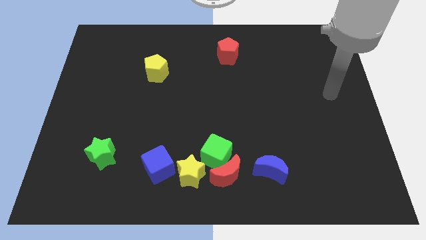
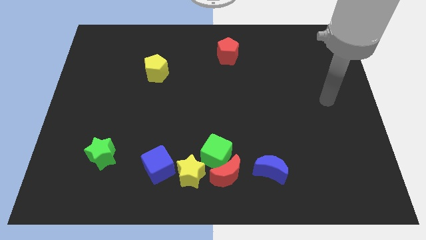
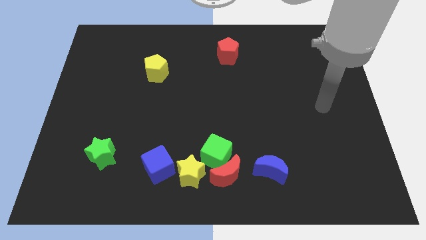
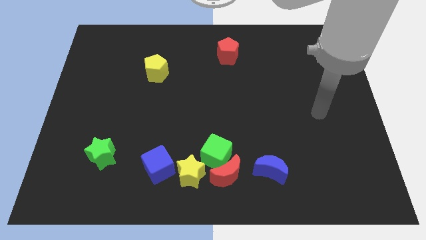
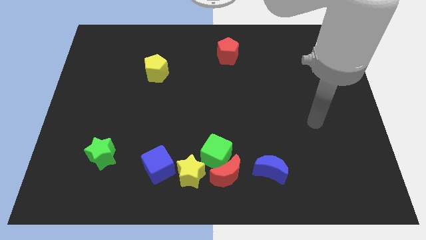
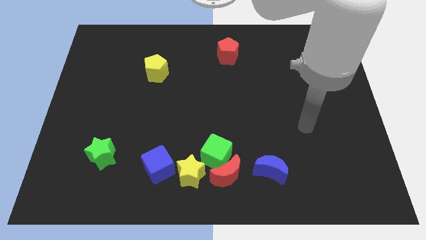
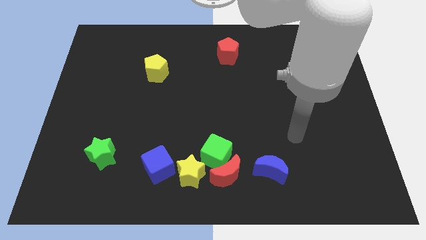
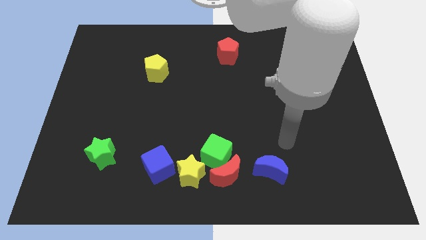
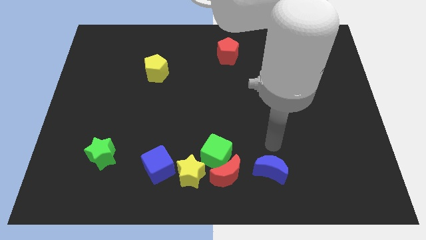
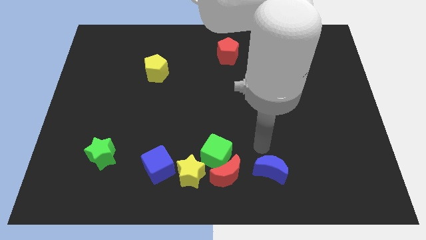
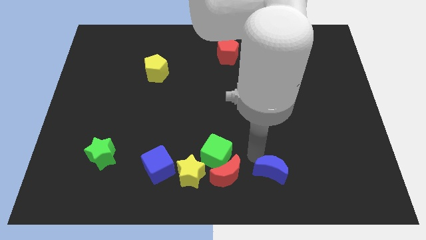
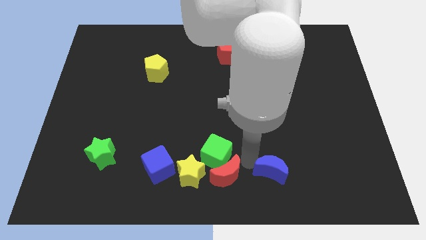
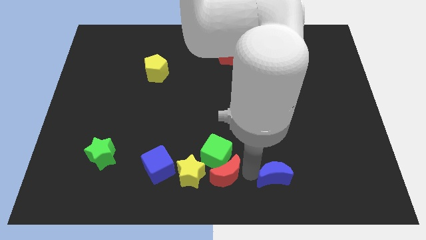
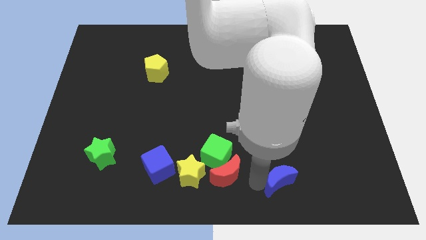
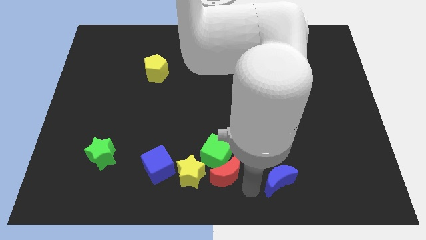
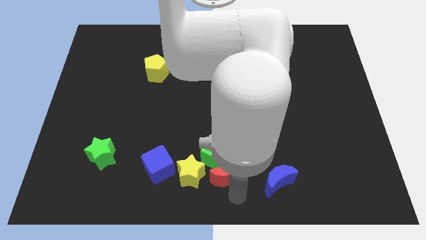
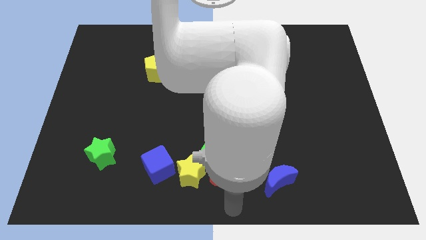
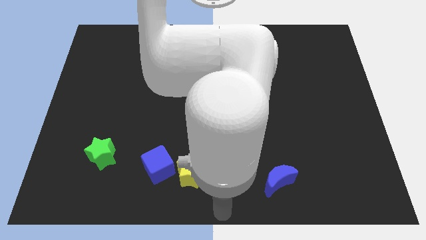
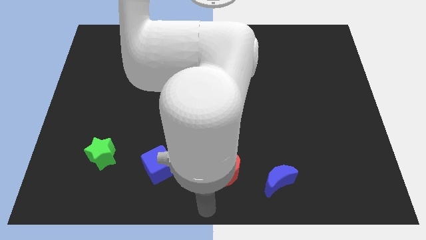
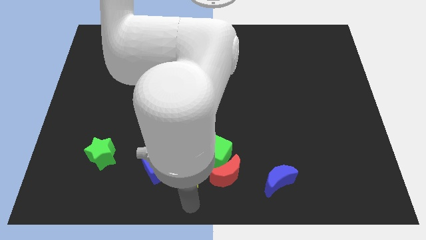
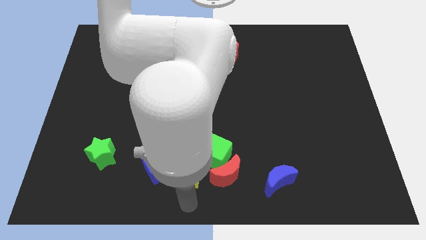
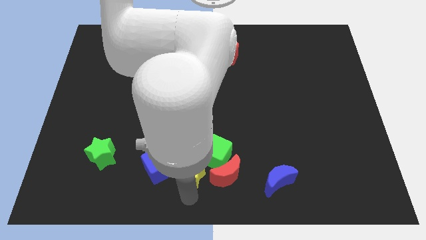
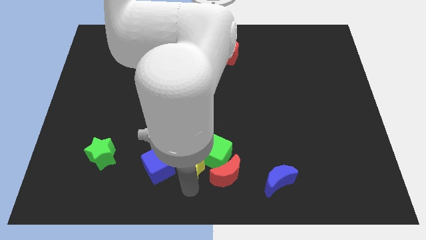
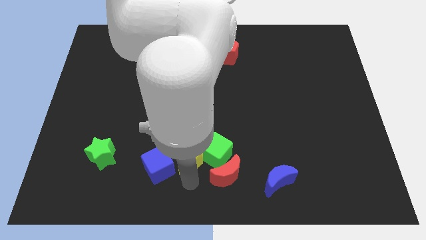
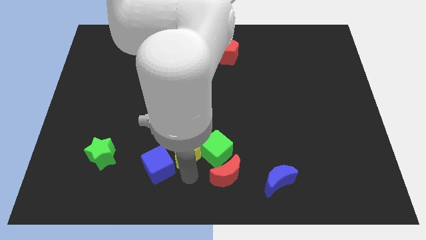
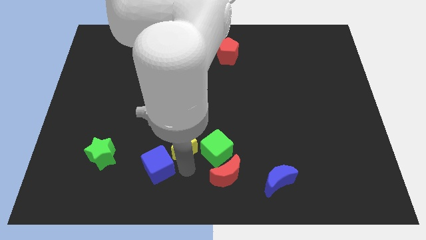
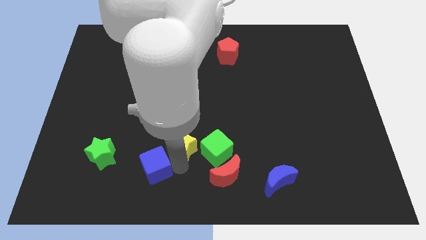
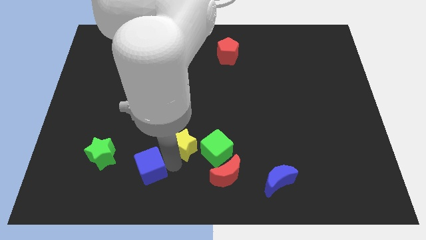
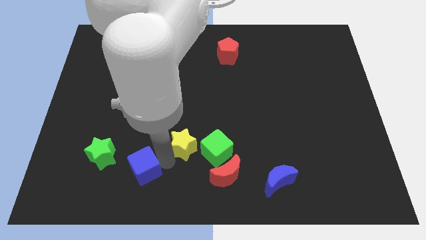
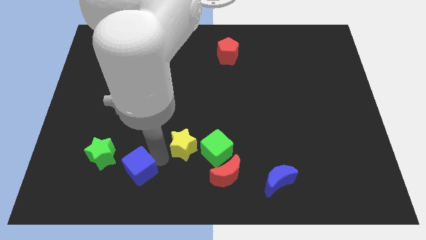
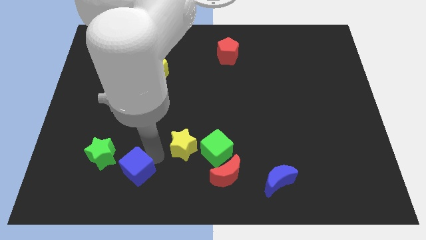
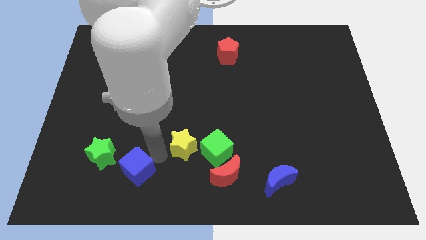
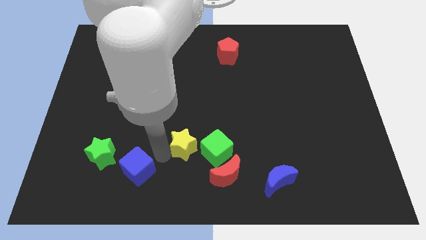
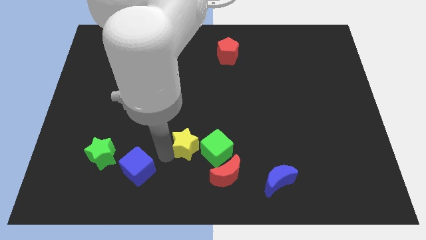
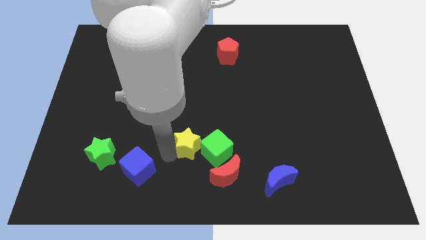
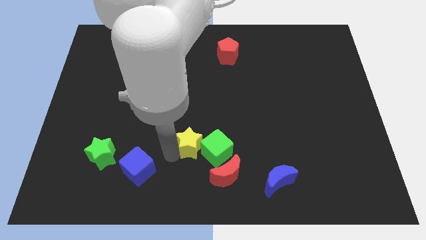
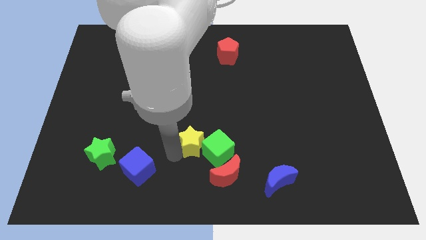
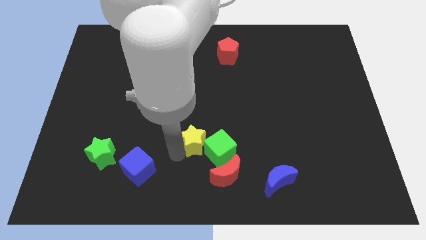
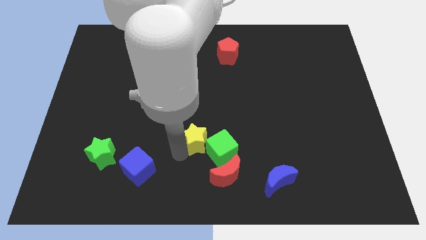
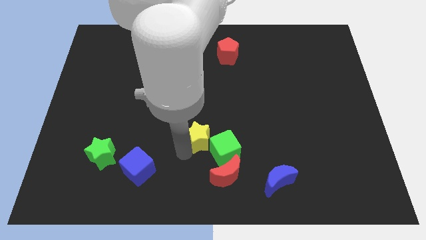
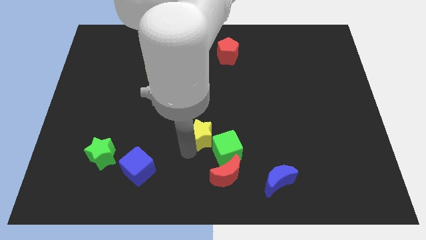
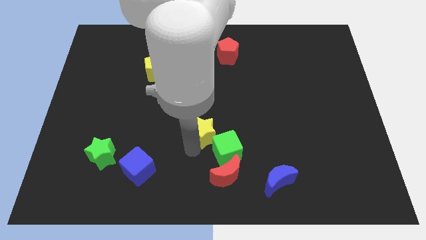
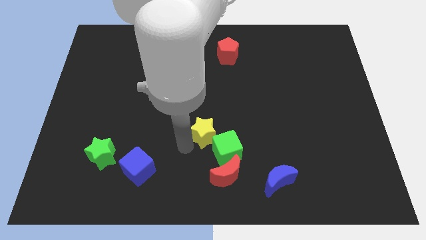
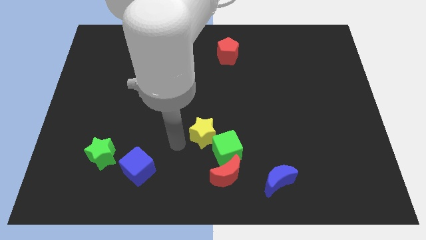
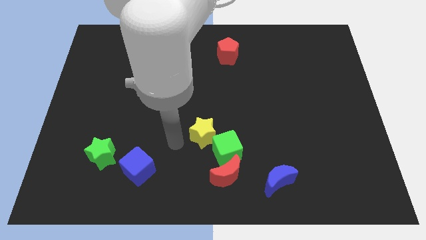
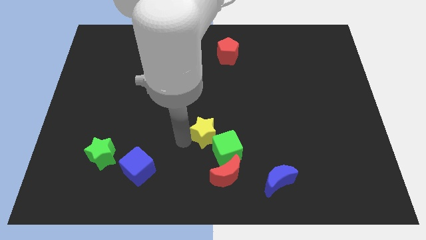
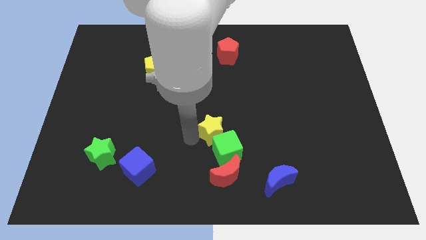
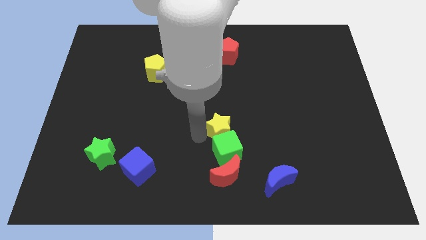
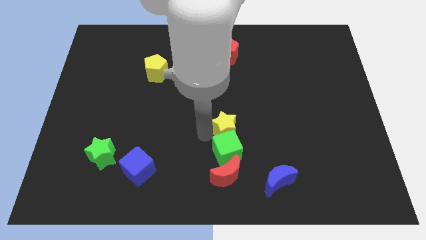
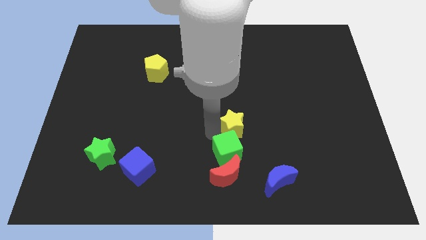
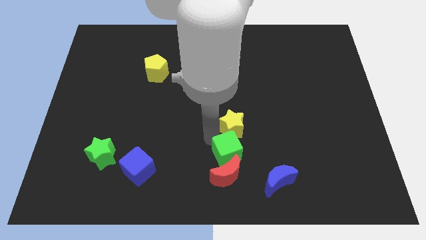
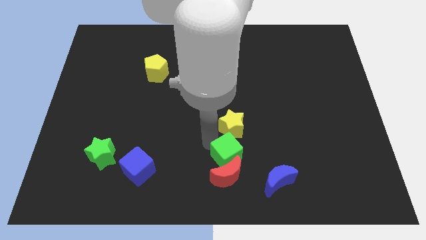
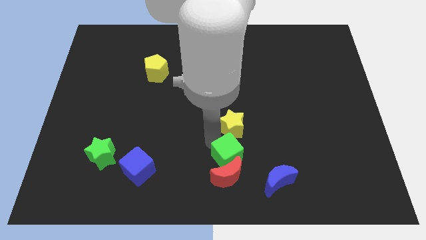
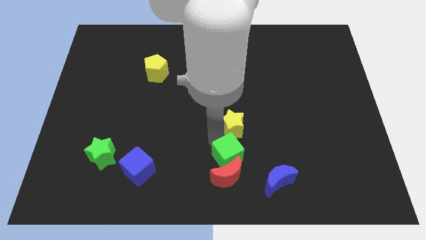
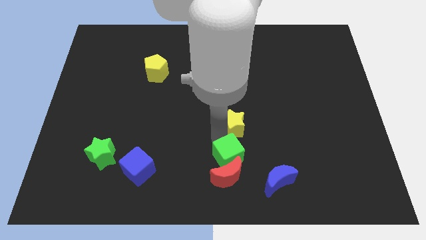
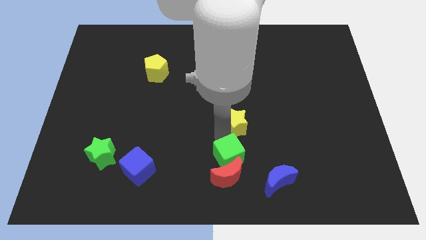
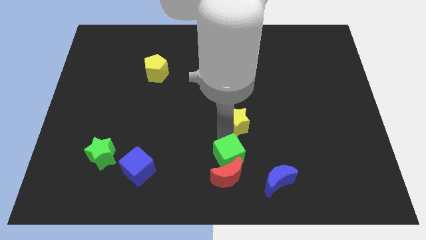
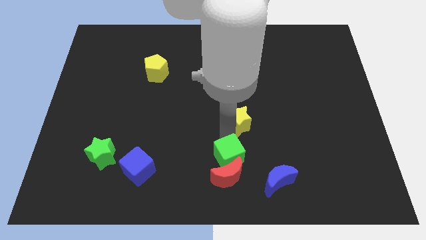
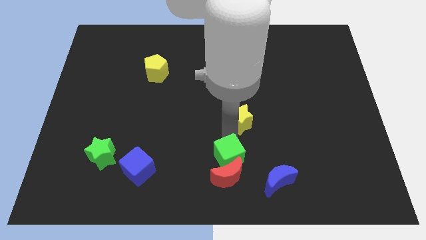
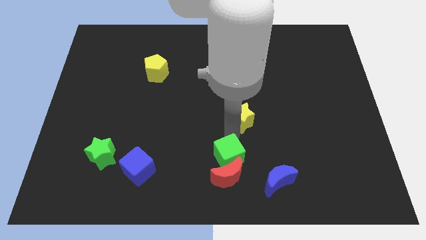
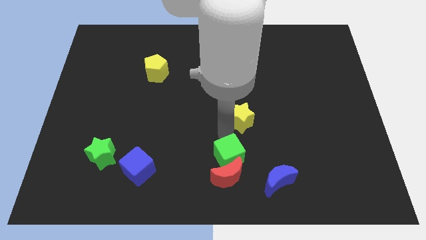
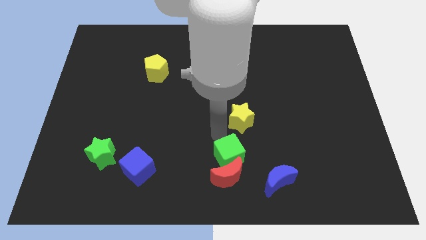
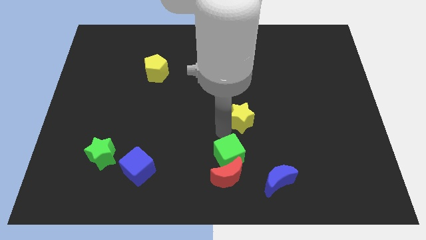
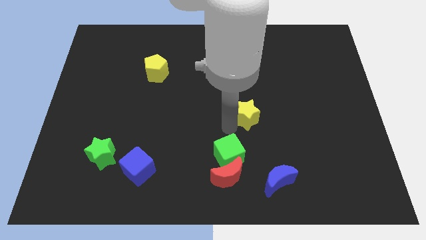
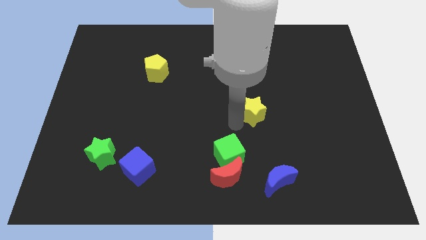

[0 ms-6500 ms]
push the yellow star up and to the right

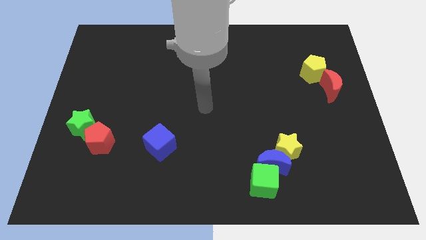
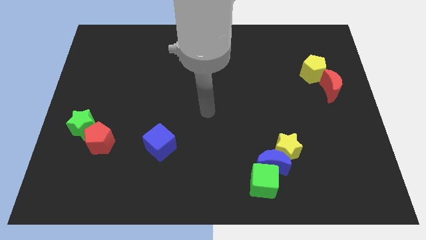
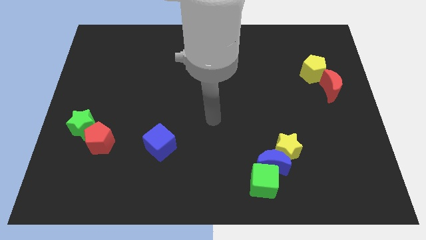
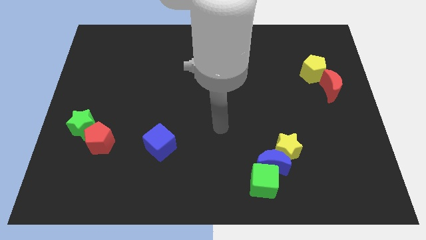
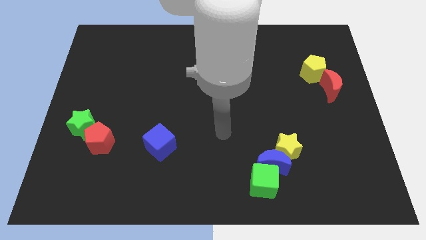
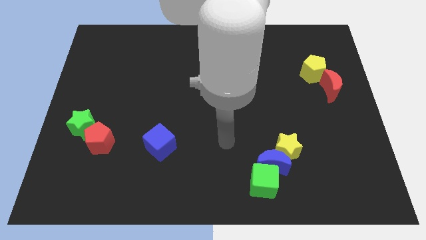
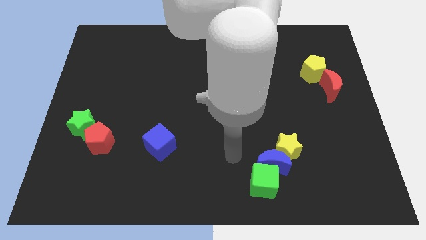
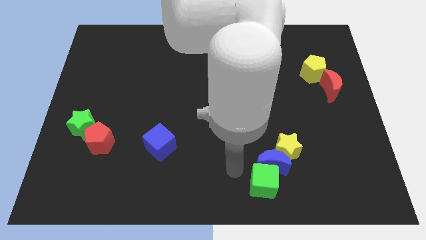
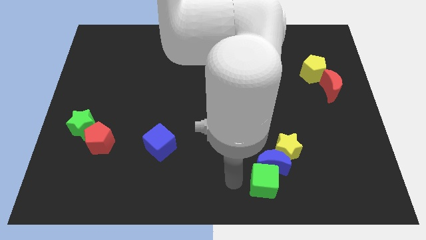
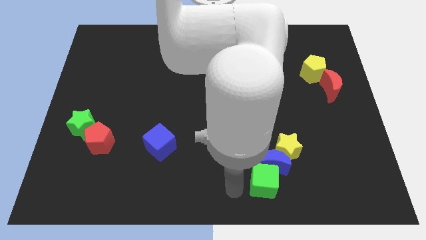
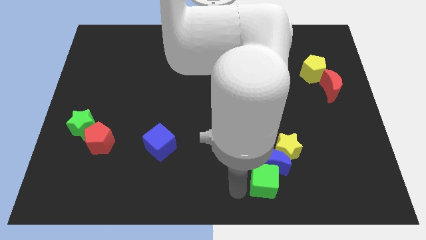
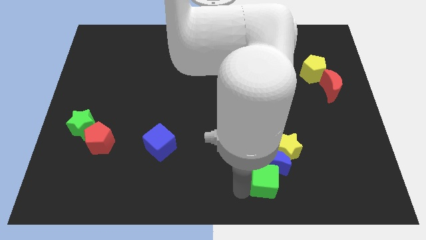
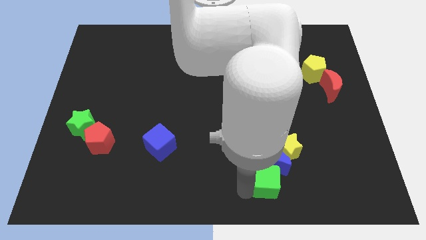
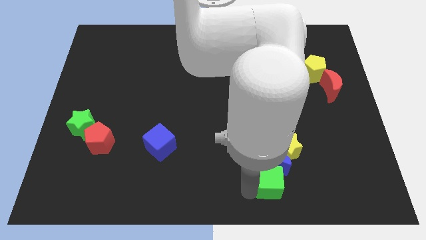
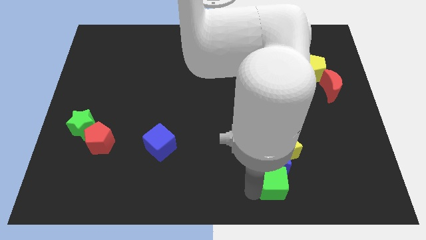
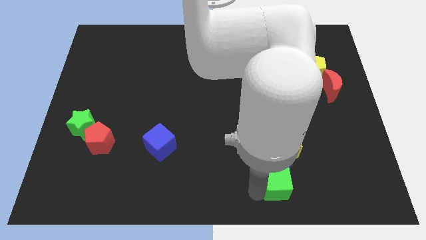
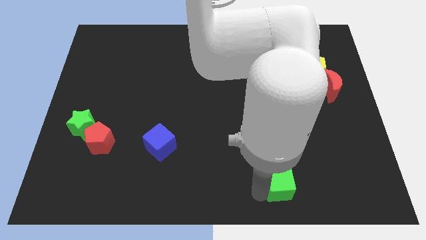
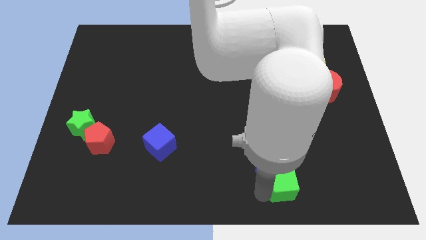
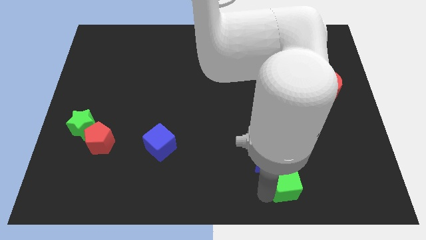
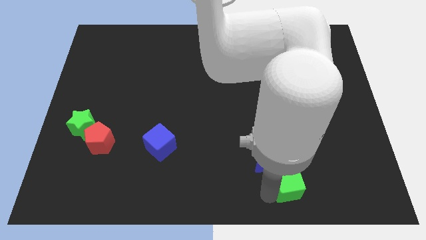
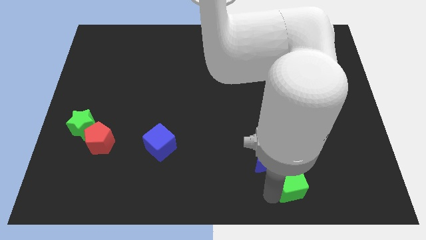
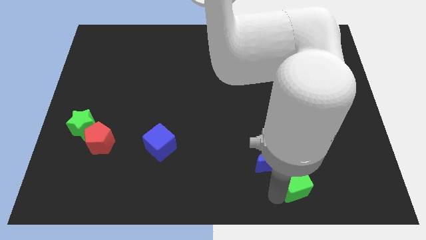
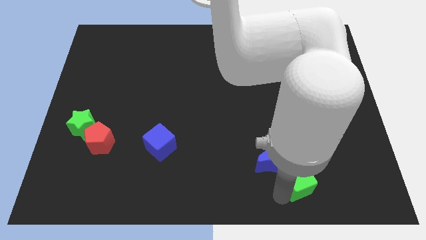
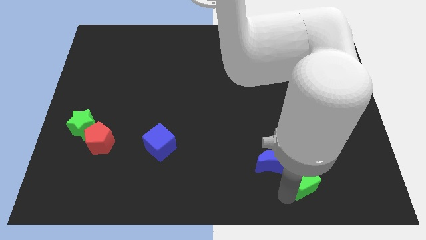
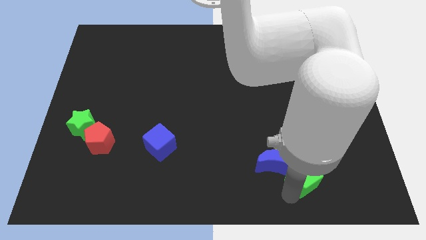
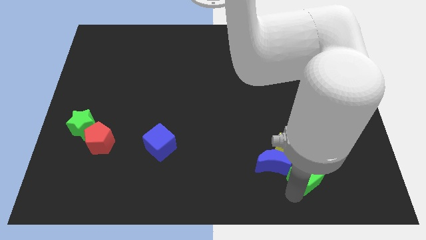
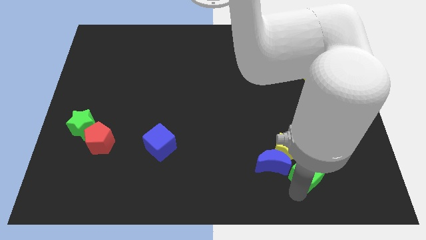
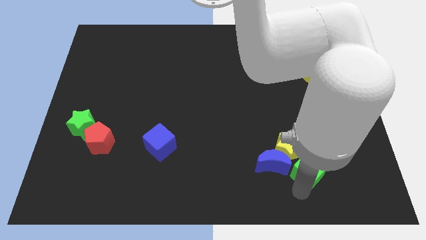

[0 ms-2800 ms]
push the green cube somewhat upwards and then right
